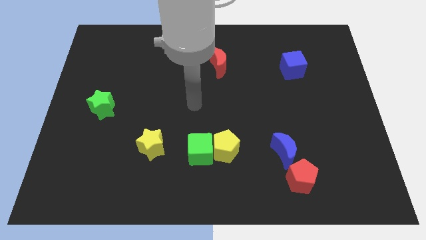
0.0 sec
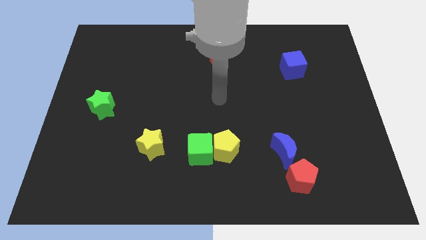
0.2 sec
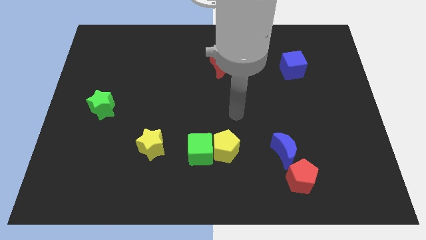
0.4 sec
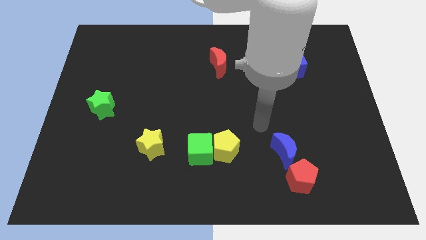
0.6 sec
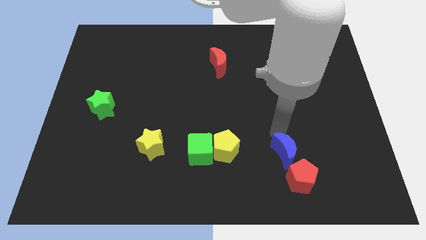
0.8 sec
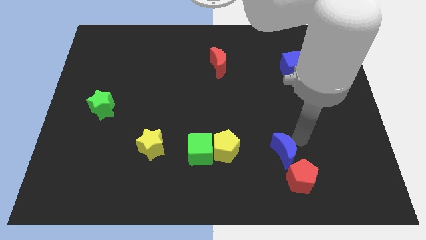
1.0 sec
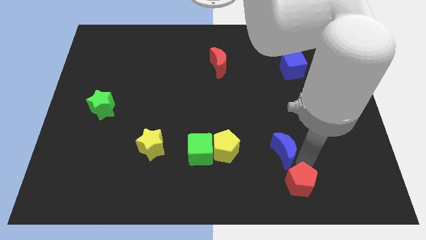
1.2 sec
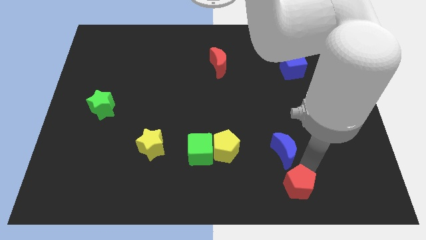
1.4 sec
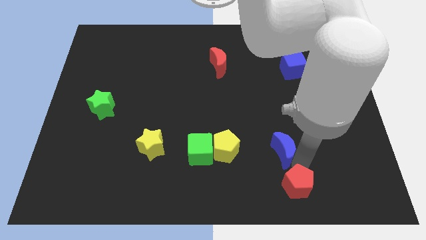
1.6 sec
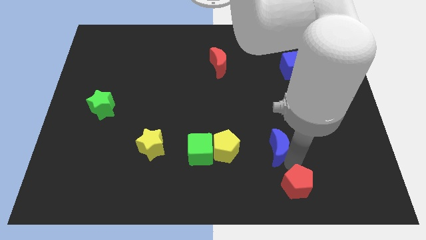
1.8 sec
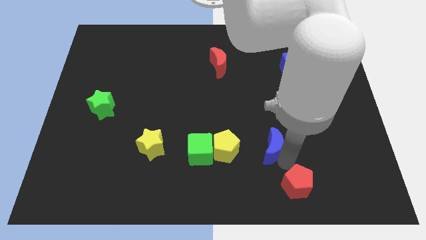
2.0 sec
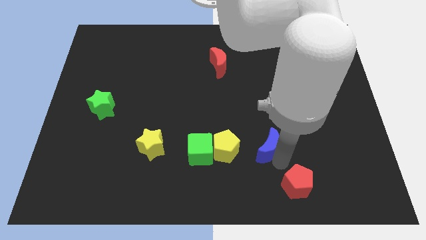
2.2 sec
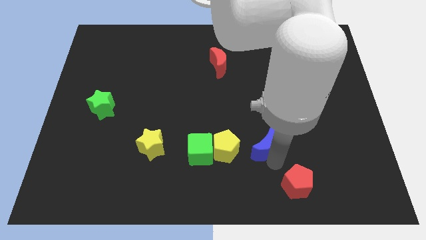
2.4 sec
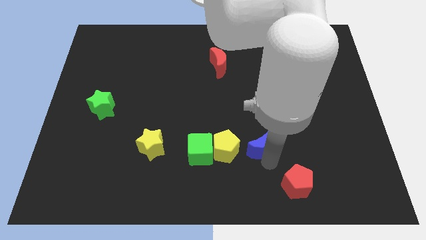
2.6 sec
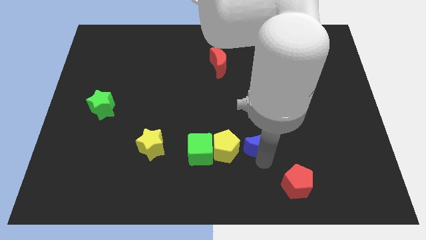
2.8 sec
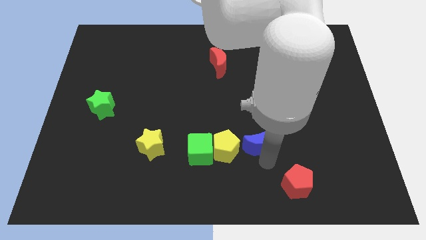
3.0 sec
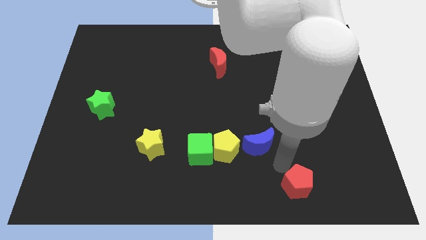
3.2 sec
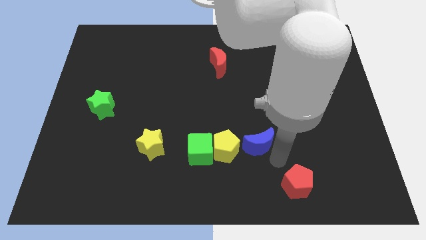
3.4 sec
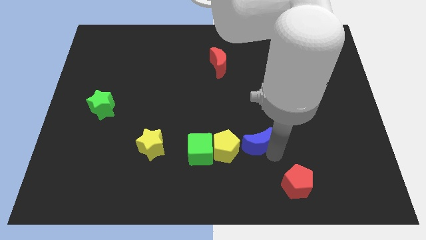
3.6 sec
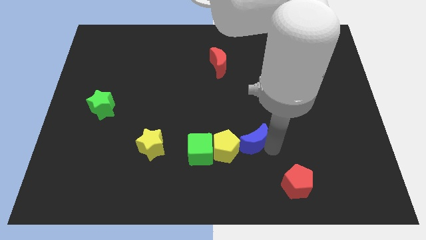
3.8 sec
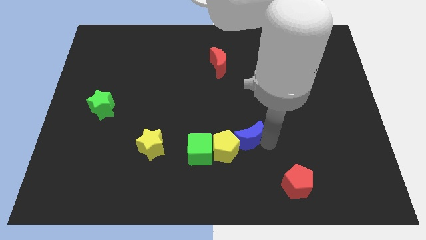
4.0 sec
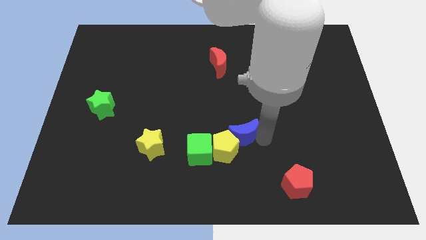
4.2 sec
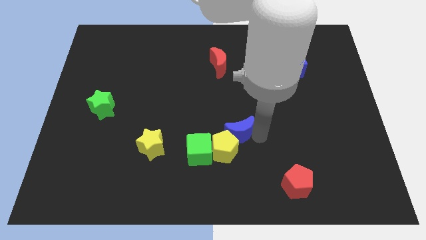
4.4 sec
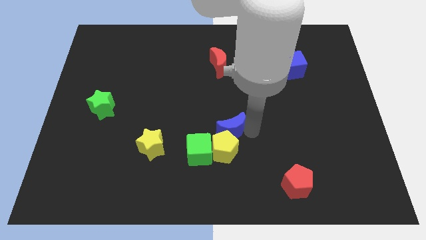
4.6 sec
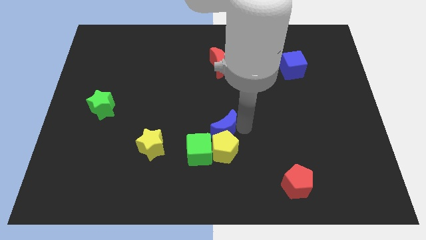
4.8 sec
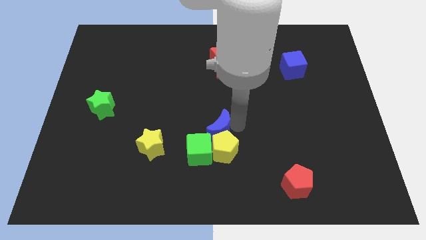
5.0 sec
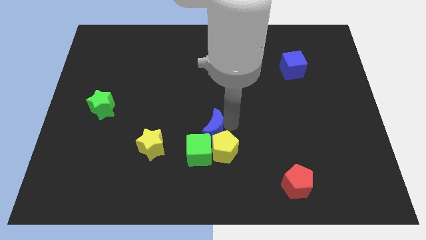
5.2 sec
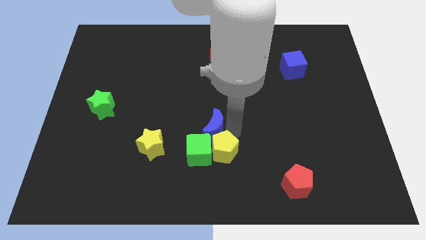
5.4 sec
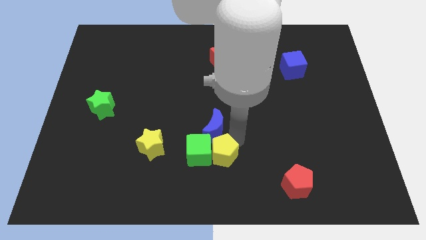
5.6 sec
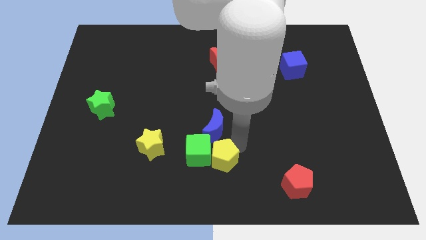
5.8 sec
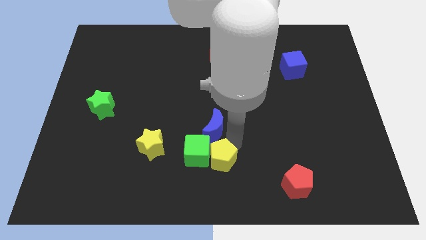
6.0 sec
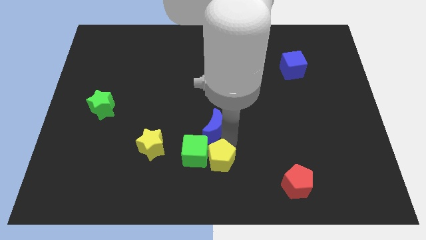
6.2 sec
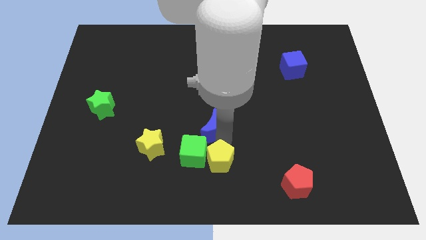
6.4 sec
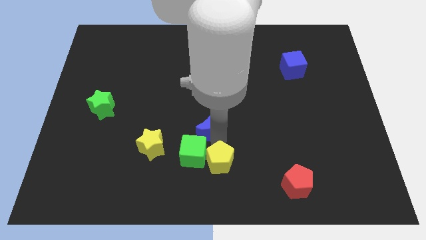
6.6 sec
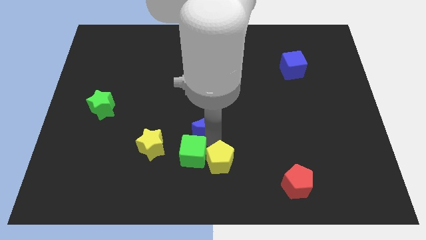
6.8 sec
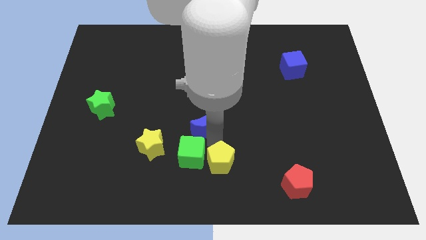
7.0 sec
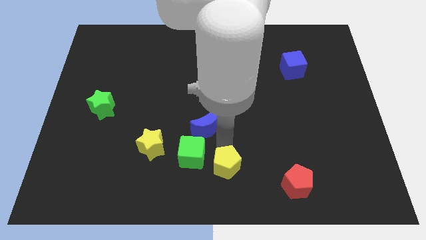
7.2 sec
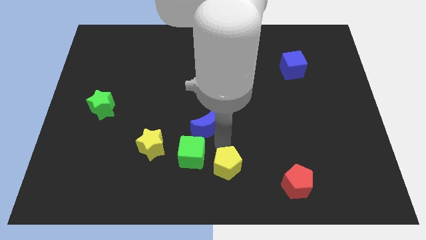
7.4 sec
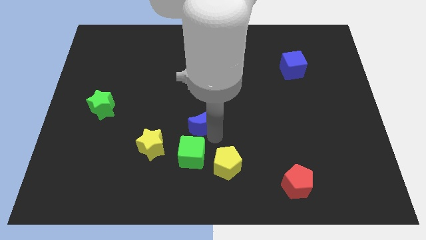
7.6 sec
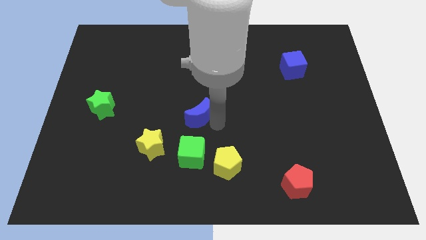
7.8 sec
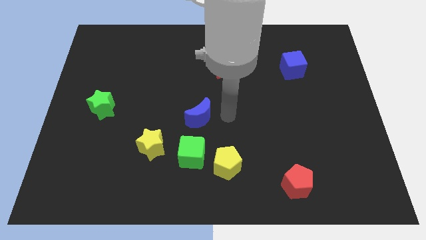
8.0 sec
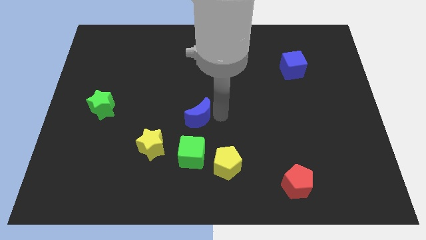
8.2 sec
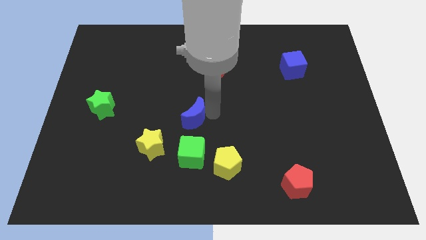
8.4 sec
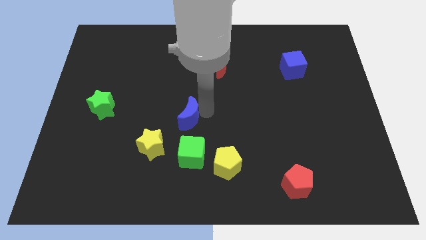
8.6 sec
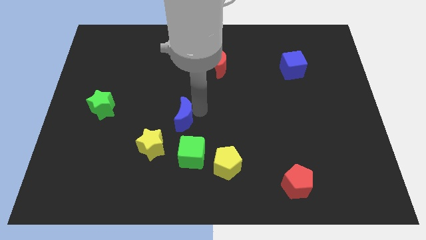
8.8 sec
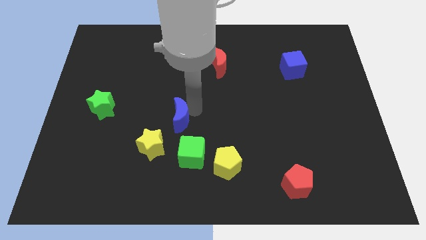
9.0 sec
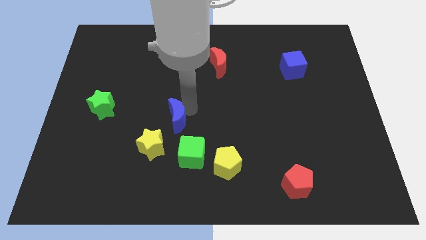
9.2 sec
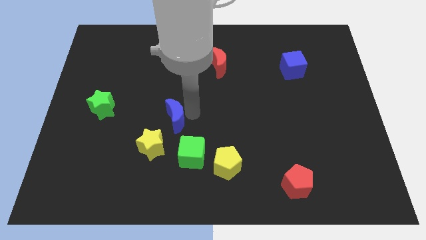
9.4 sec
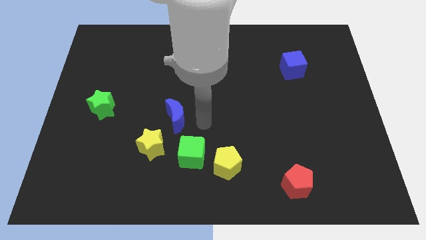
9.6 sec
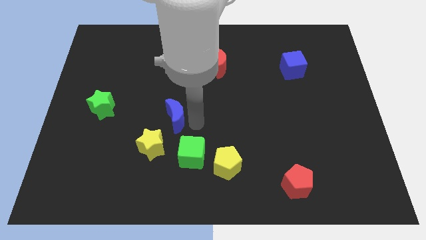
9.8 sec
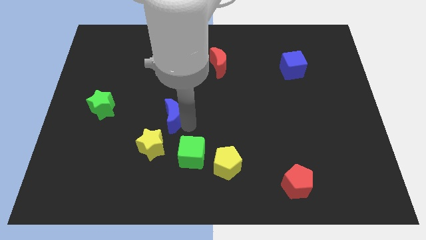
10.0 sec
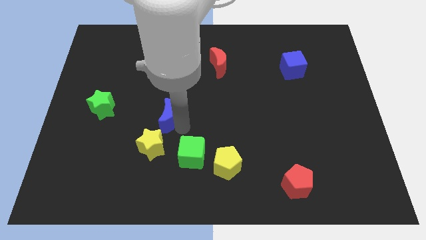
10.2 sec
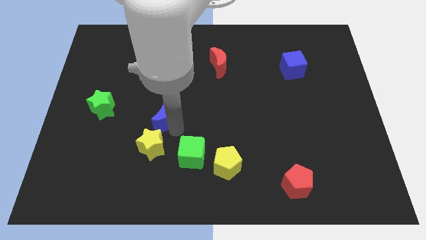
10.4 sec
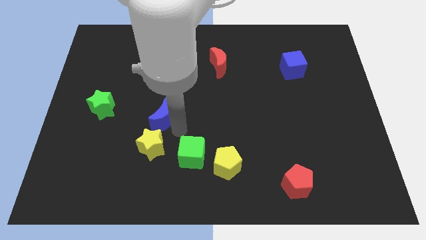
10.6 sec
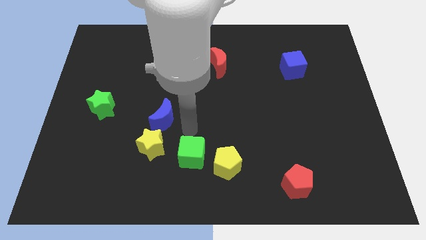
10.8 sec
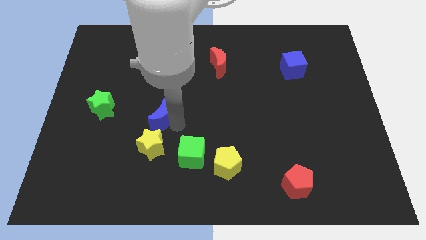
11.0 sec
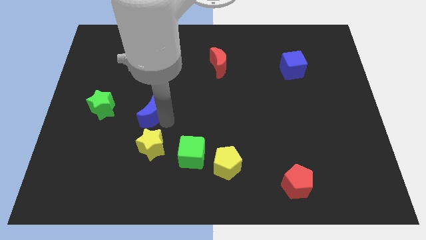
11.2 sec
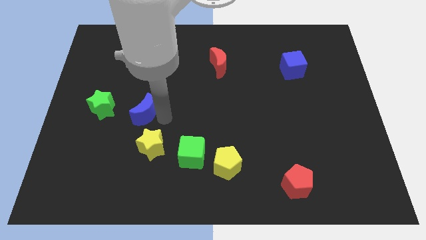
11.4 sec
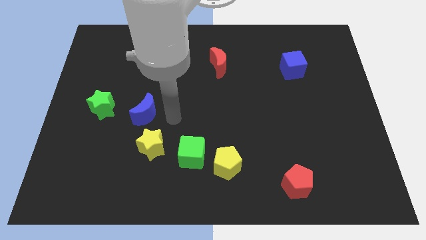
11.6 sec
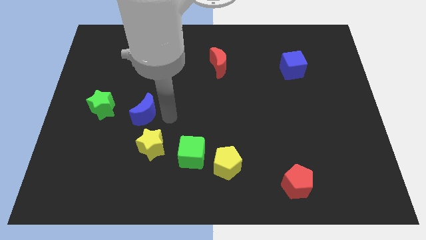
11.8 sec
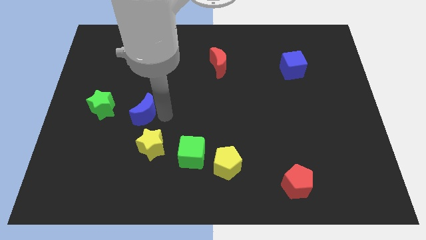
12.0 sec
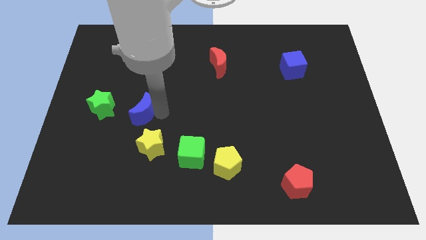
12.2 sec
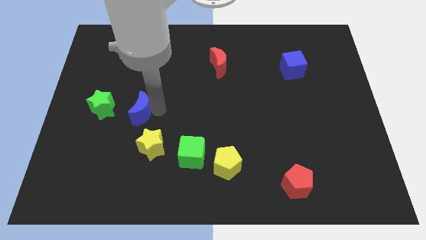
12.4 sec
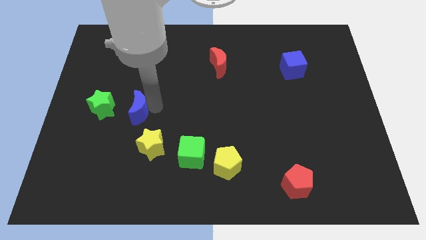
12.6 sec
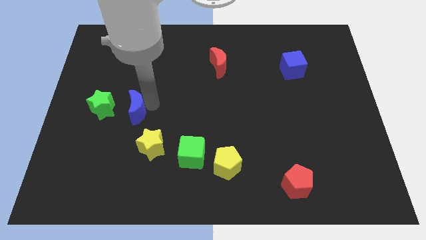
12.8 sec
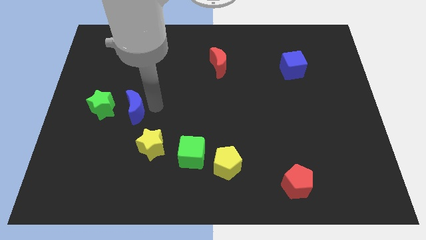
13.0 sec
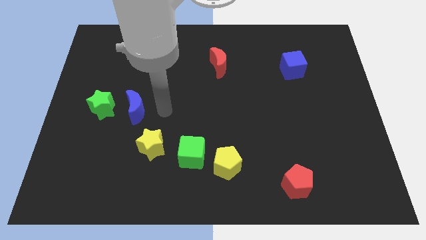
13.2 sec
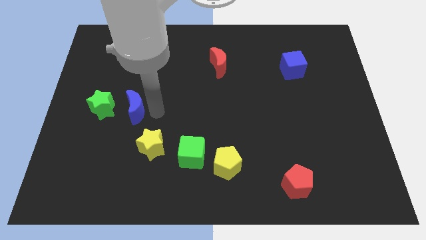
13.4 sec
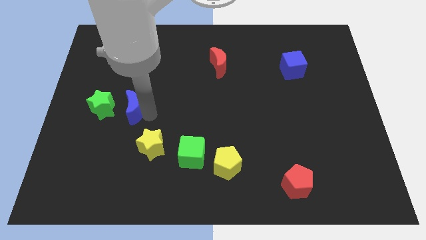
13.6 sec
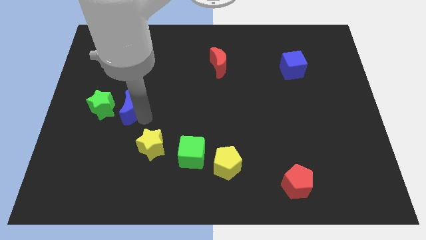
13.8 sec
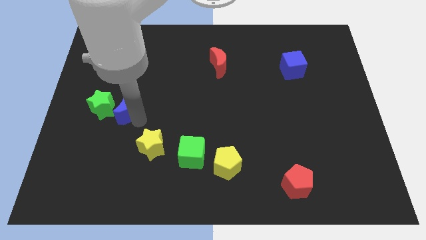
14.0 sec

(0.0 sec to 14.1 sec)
move the blue moon to the green star

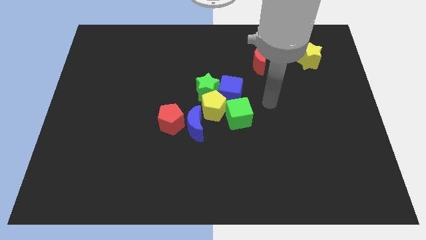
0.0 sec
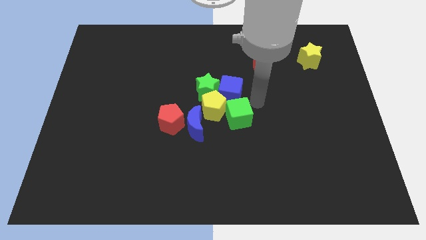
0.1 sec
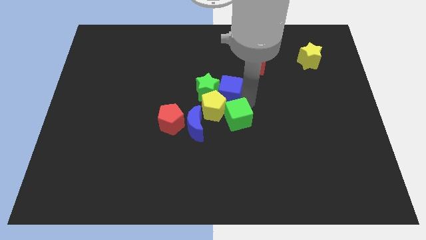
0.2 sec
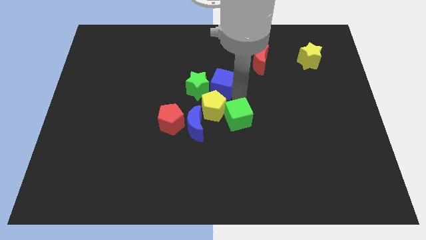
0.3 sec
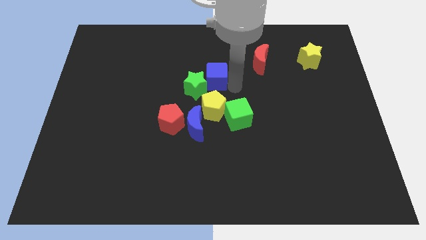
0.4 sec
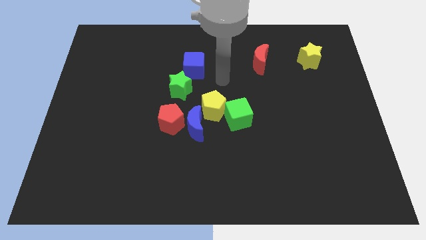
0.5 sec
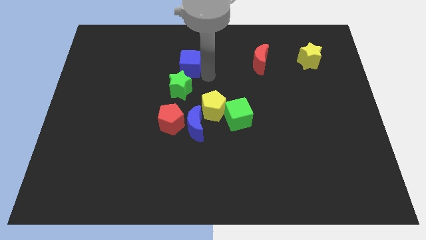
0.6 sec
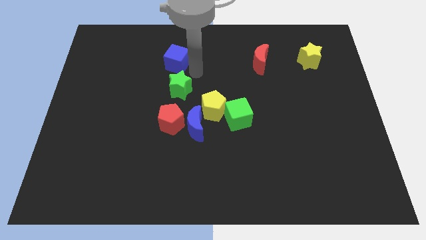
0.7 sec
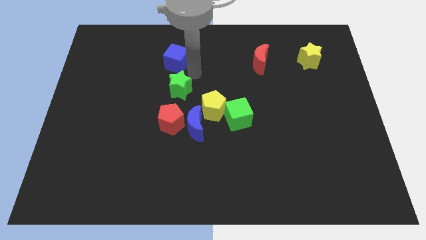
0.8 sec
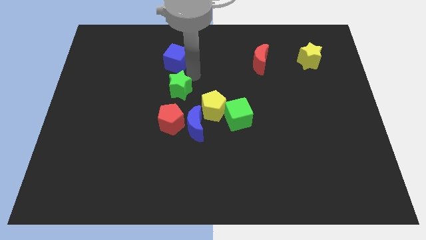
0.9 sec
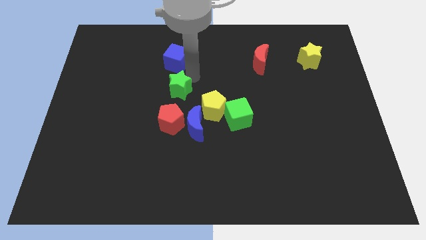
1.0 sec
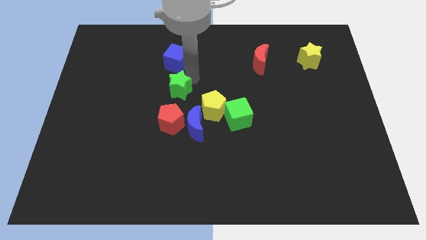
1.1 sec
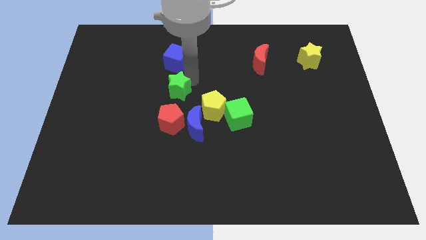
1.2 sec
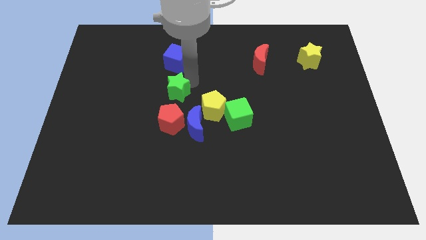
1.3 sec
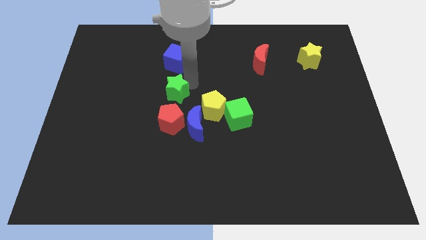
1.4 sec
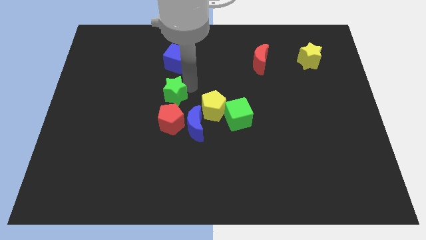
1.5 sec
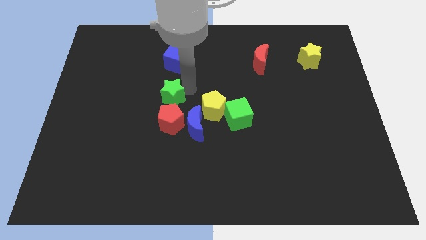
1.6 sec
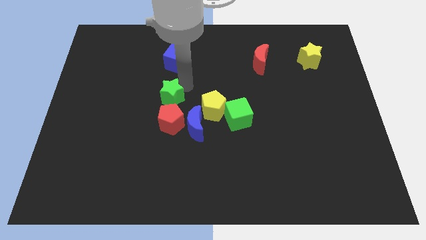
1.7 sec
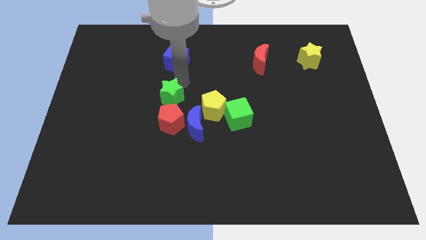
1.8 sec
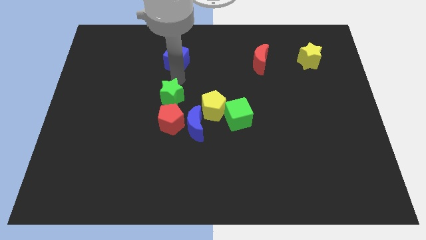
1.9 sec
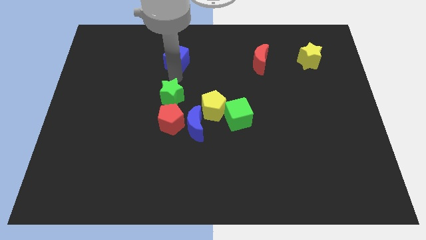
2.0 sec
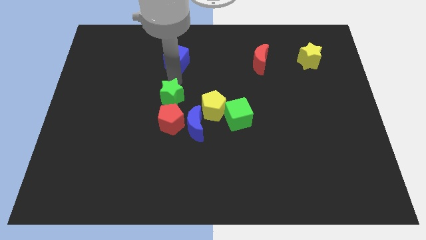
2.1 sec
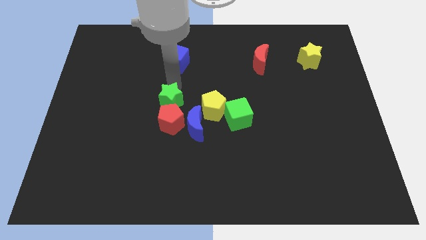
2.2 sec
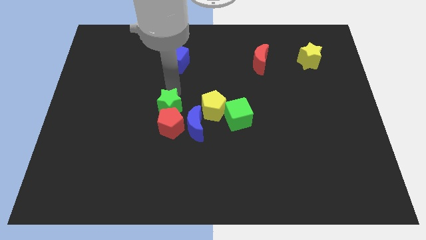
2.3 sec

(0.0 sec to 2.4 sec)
put the green star to the red pentagon
